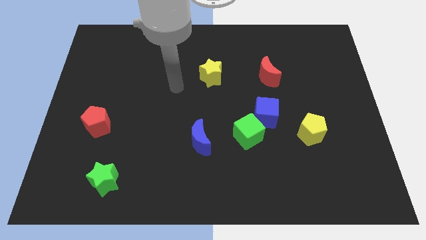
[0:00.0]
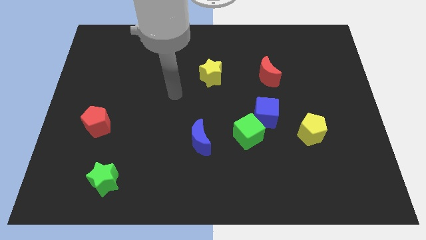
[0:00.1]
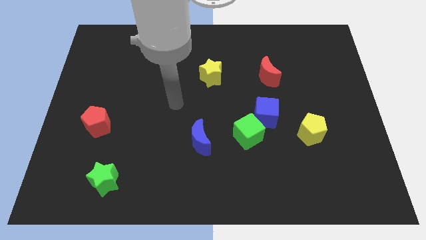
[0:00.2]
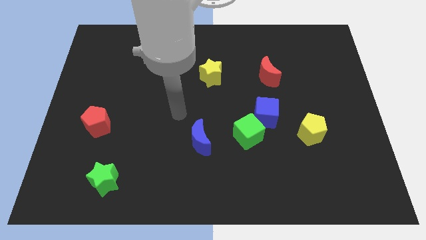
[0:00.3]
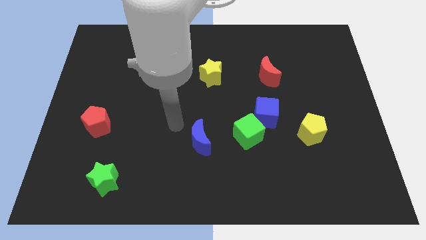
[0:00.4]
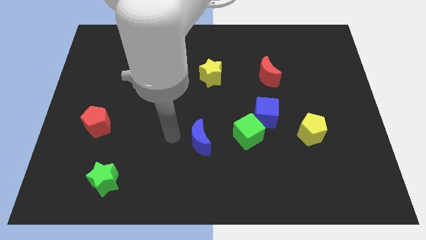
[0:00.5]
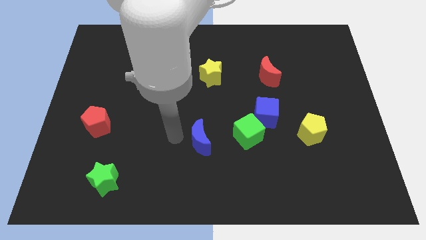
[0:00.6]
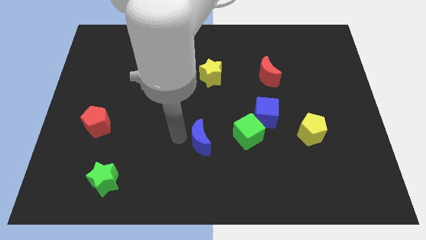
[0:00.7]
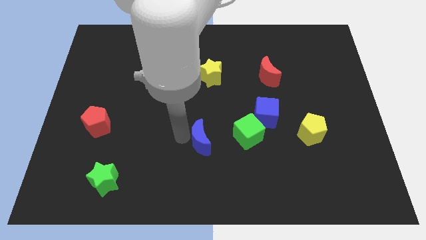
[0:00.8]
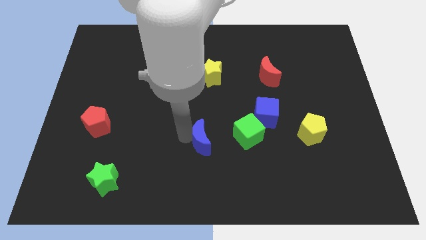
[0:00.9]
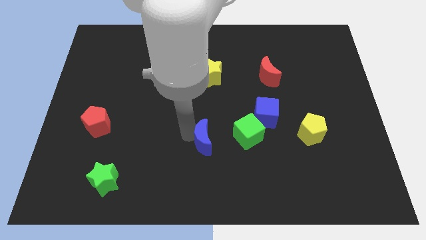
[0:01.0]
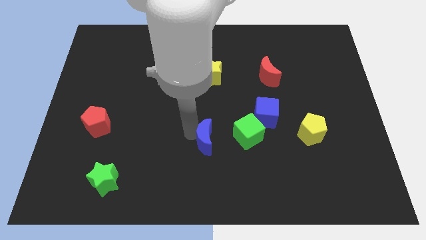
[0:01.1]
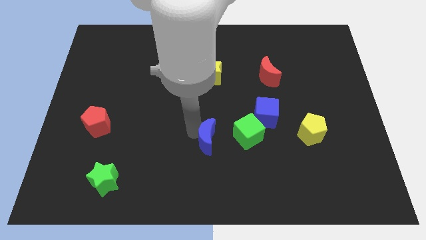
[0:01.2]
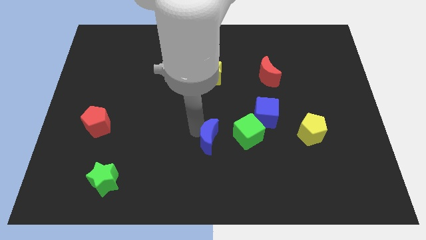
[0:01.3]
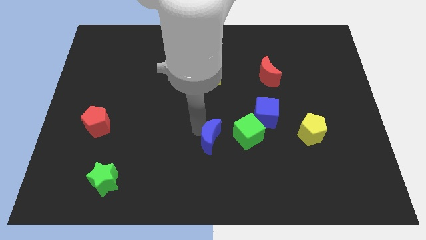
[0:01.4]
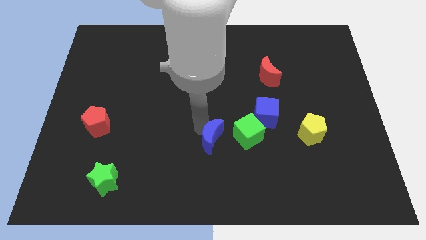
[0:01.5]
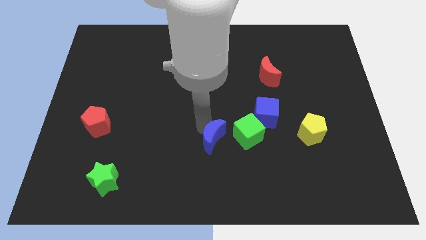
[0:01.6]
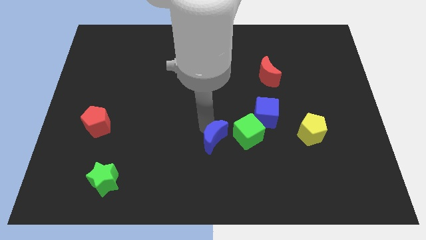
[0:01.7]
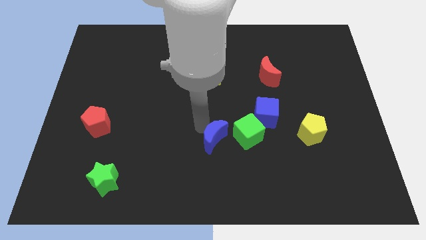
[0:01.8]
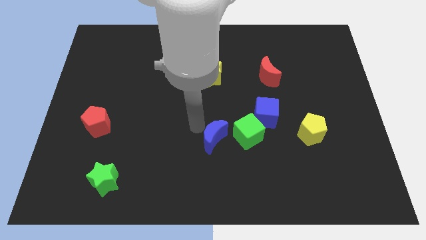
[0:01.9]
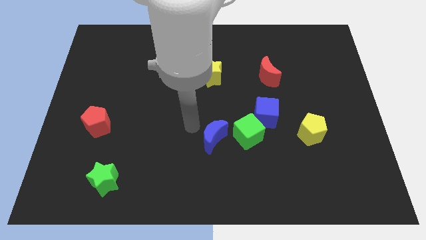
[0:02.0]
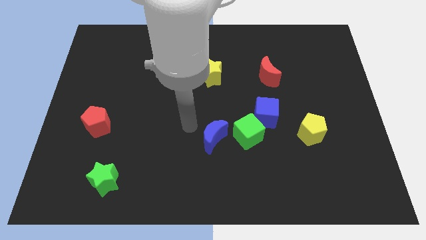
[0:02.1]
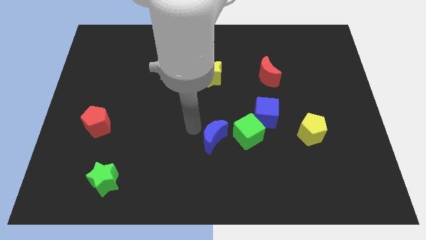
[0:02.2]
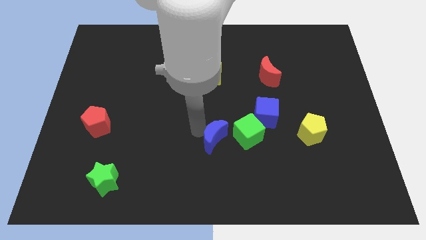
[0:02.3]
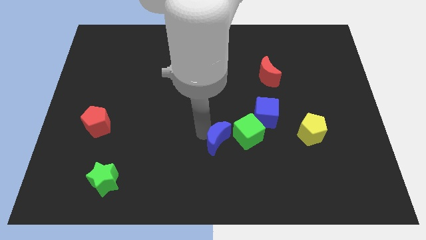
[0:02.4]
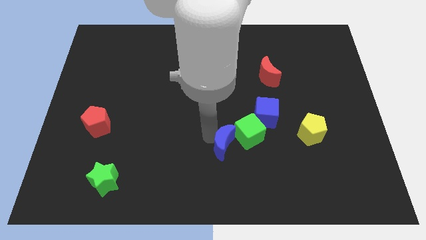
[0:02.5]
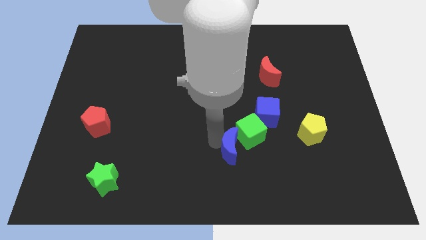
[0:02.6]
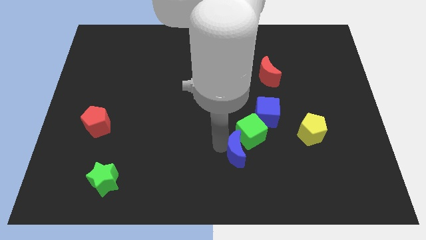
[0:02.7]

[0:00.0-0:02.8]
slide the blue moon a bit right

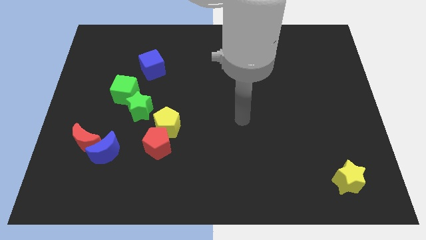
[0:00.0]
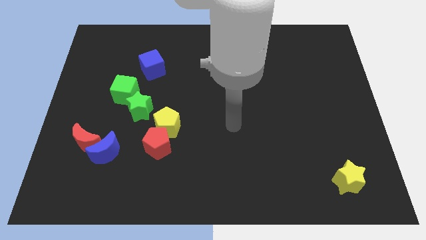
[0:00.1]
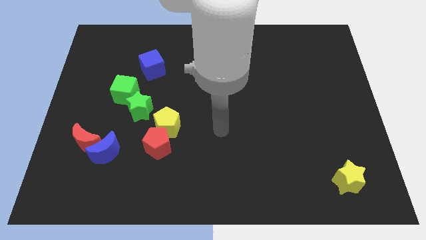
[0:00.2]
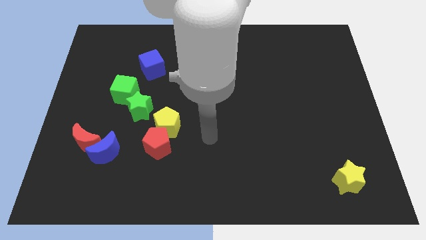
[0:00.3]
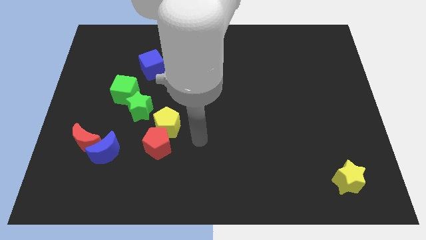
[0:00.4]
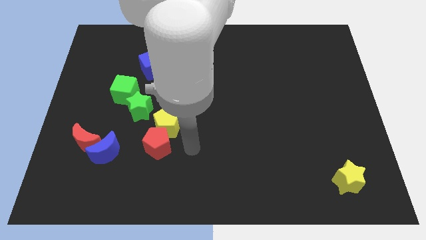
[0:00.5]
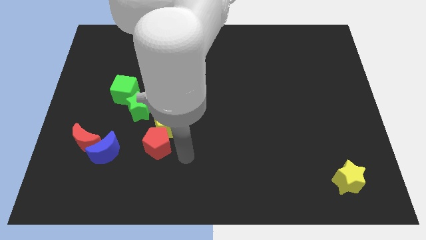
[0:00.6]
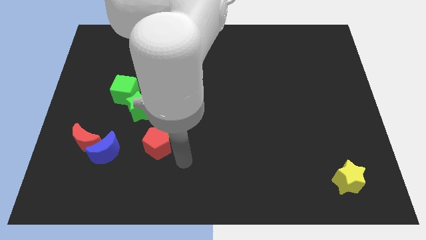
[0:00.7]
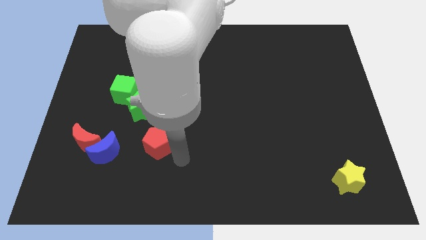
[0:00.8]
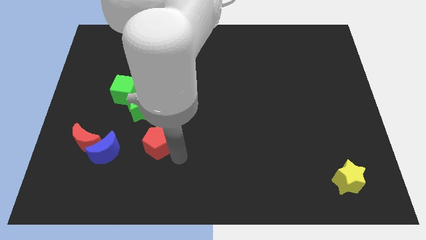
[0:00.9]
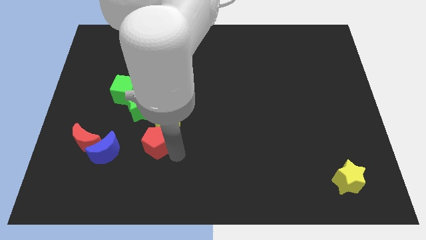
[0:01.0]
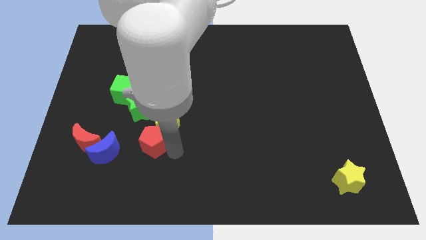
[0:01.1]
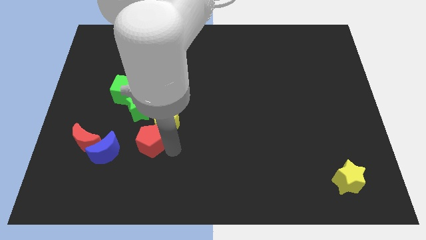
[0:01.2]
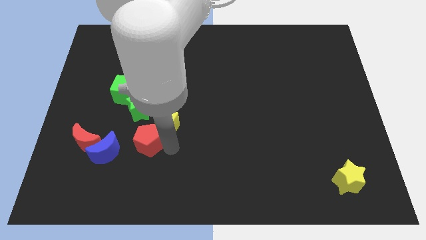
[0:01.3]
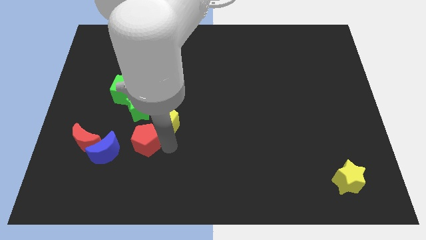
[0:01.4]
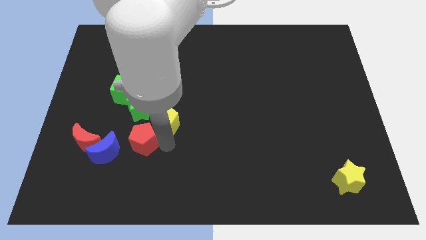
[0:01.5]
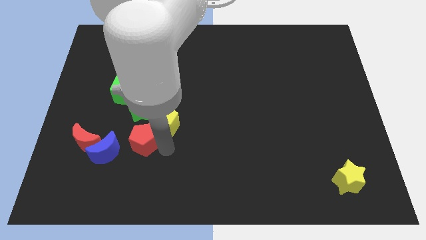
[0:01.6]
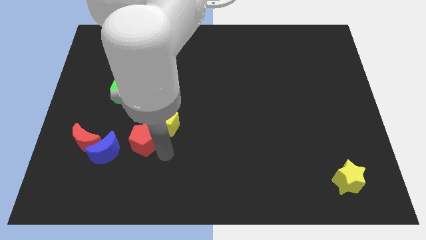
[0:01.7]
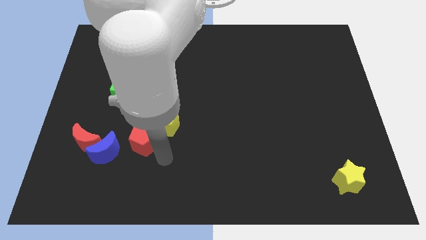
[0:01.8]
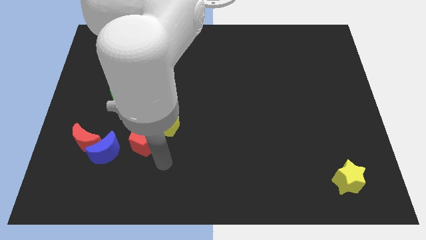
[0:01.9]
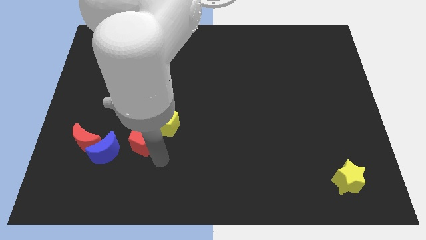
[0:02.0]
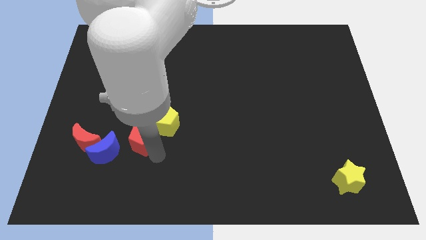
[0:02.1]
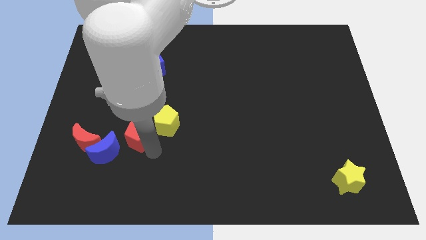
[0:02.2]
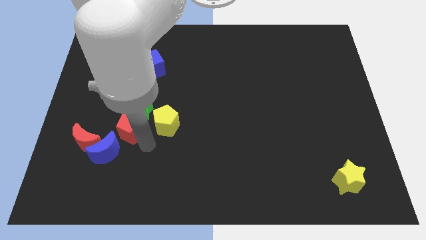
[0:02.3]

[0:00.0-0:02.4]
slightly move the red pentagon upwards and then to the left

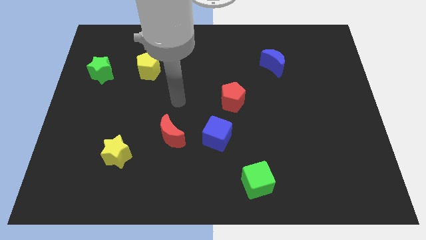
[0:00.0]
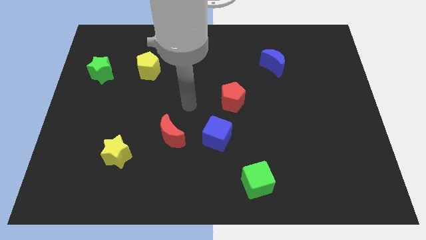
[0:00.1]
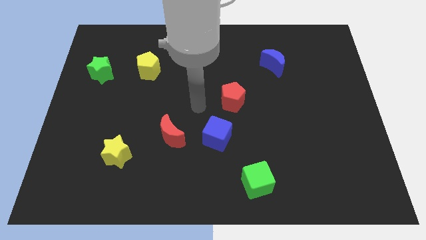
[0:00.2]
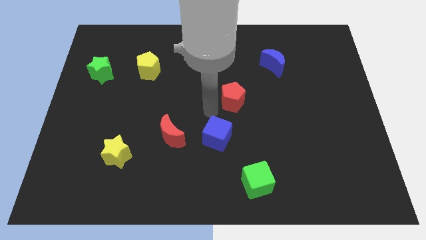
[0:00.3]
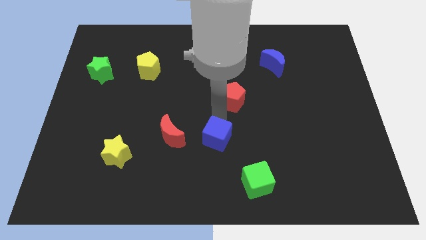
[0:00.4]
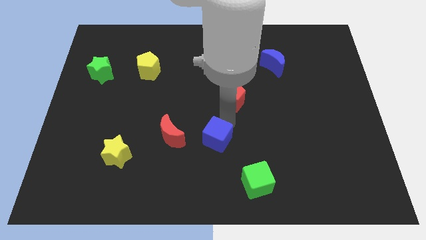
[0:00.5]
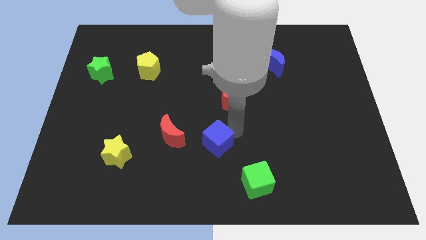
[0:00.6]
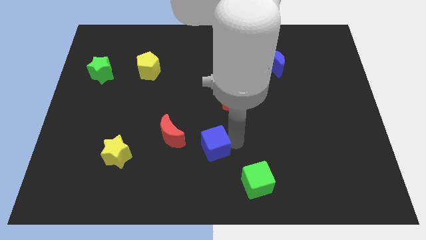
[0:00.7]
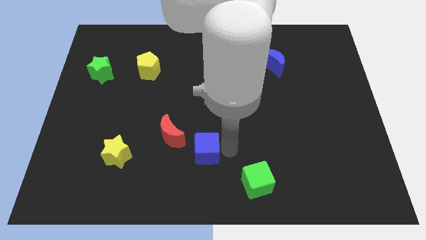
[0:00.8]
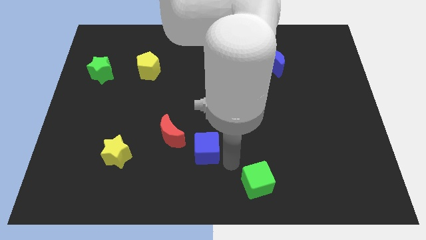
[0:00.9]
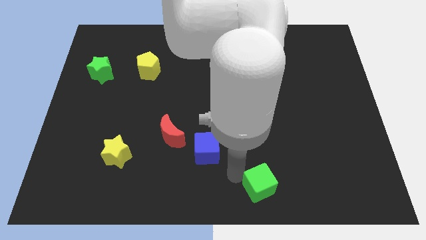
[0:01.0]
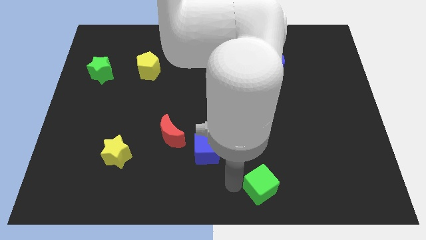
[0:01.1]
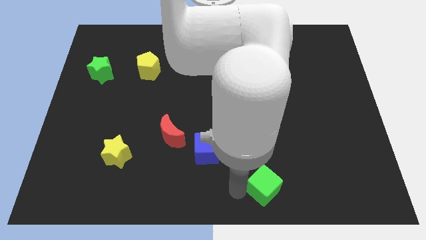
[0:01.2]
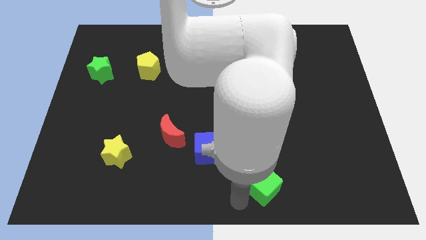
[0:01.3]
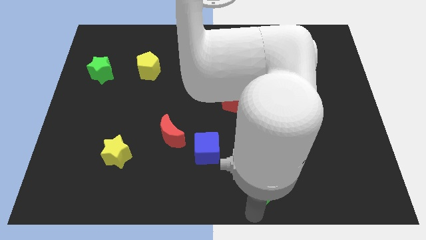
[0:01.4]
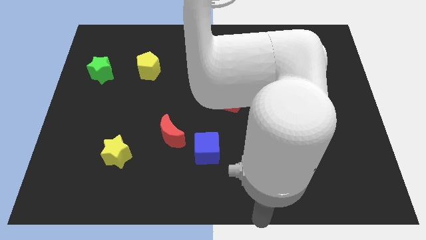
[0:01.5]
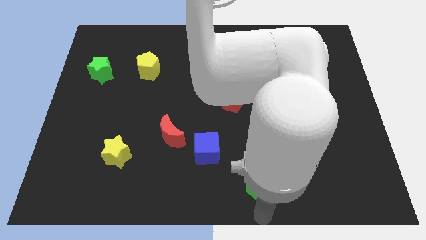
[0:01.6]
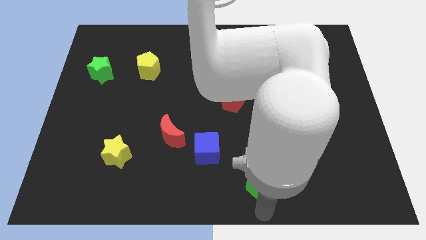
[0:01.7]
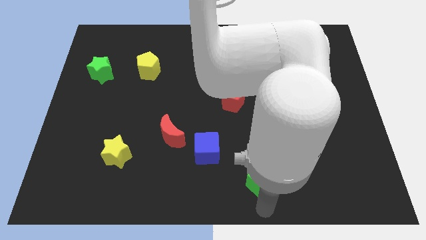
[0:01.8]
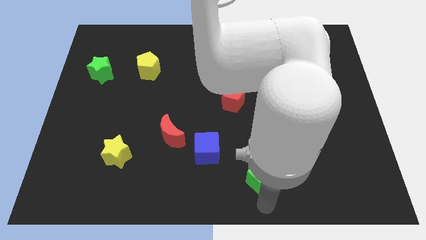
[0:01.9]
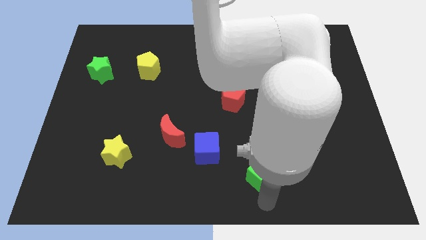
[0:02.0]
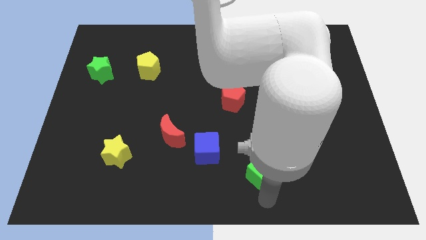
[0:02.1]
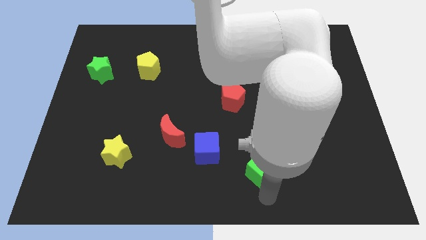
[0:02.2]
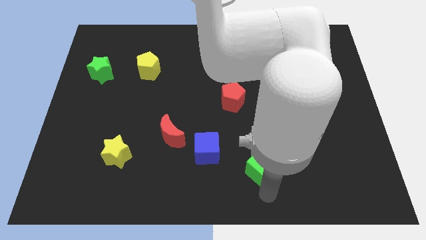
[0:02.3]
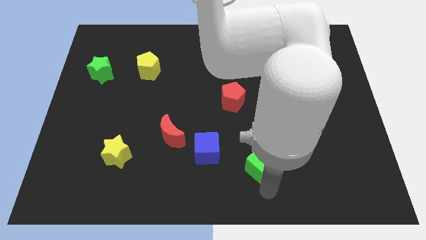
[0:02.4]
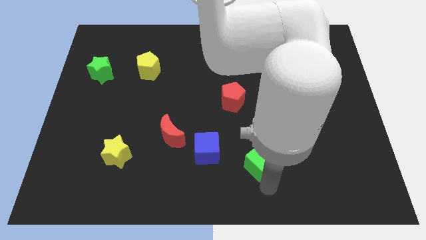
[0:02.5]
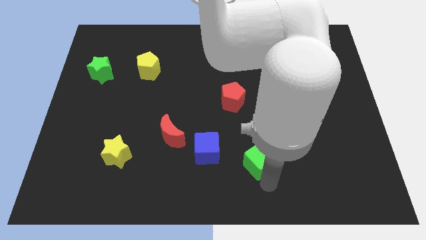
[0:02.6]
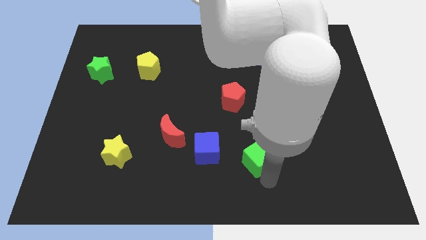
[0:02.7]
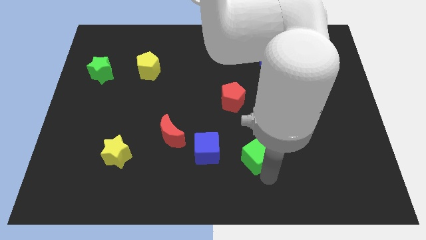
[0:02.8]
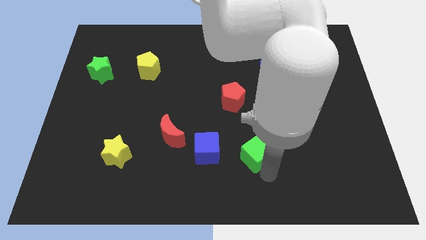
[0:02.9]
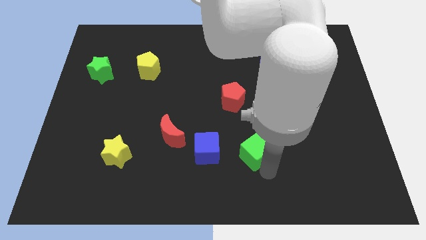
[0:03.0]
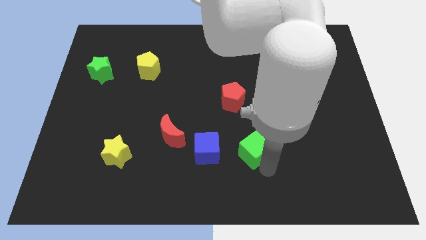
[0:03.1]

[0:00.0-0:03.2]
move the green cube a little bit up
